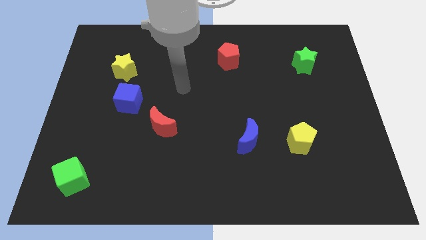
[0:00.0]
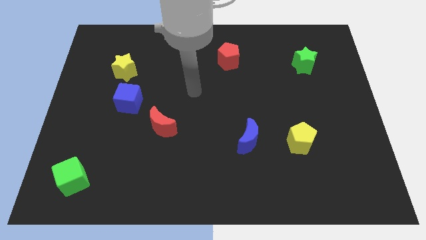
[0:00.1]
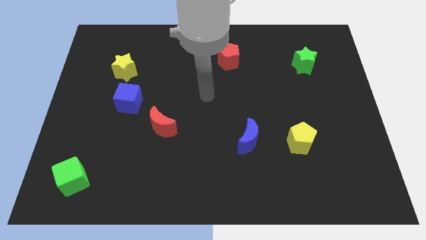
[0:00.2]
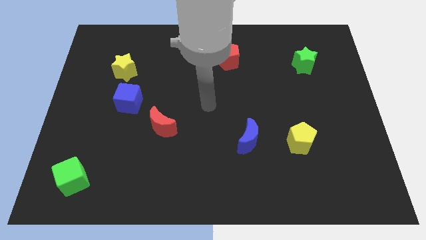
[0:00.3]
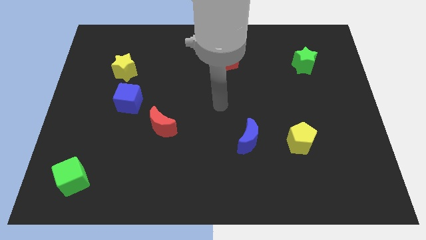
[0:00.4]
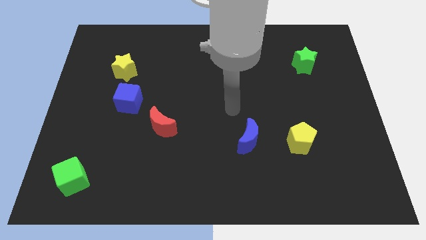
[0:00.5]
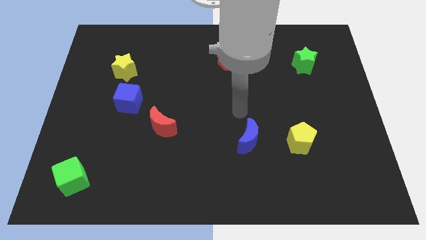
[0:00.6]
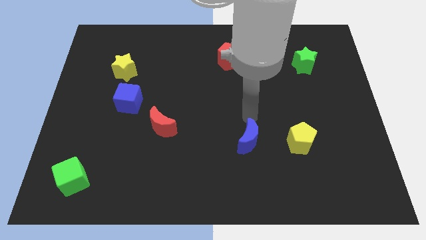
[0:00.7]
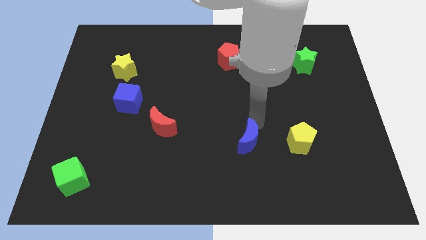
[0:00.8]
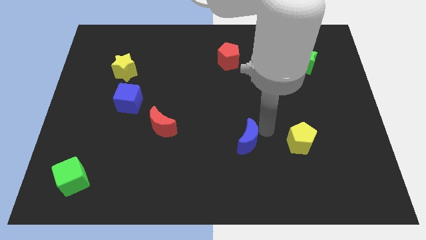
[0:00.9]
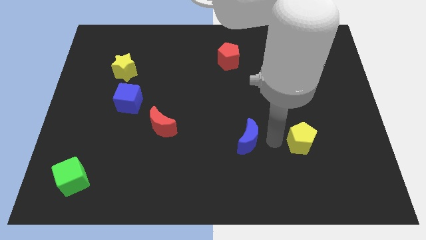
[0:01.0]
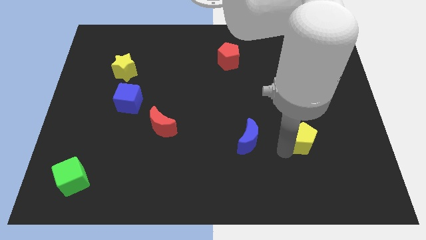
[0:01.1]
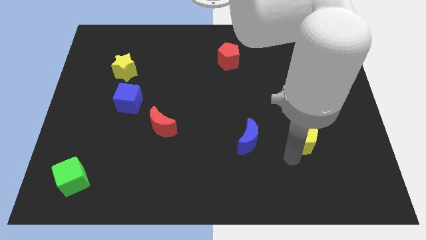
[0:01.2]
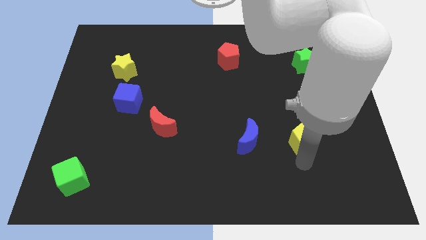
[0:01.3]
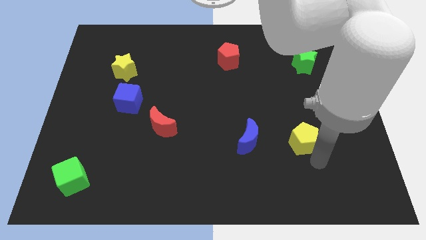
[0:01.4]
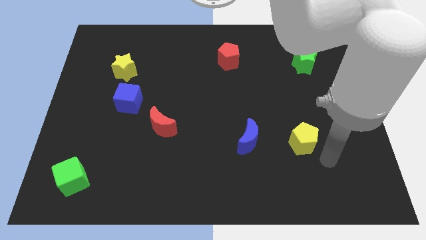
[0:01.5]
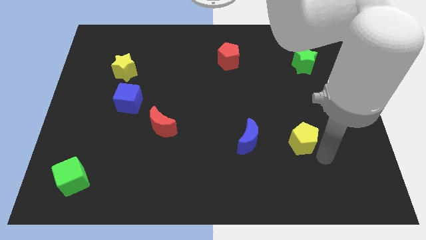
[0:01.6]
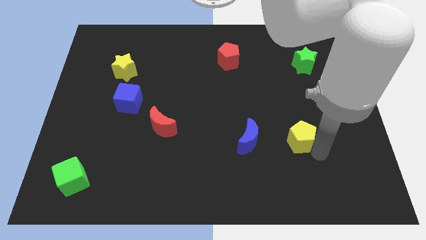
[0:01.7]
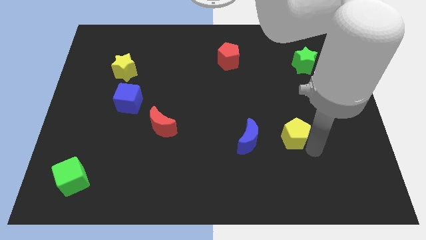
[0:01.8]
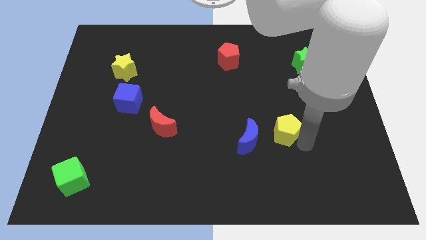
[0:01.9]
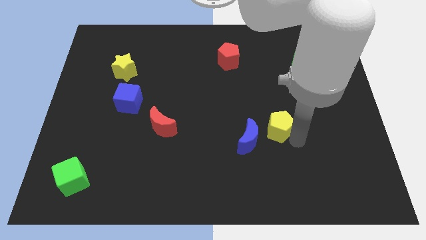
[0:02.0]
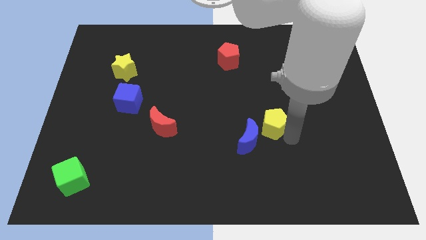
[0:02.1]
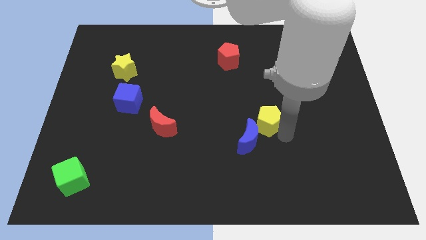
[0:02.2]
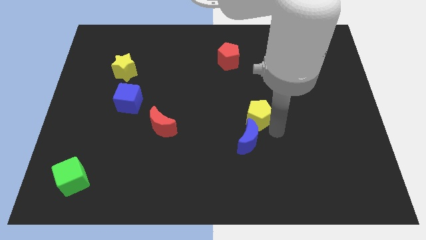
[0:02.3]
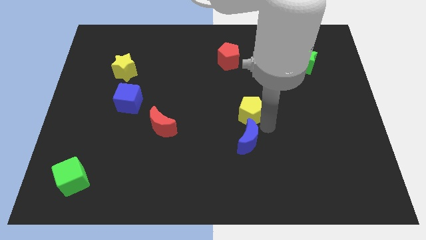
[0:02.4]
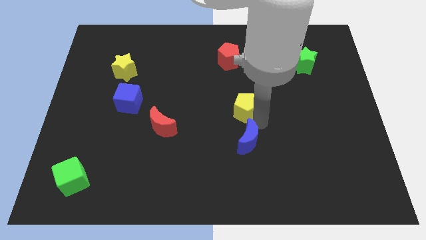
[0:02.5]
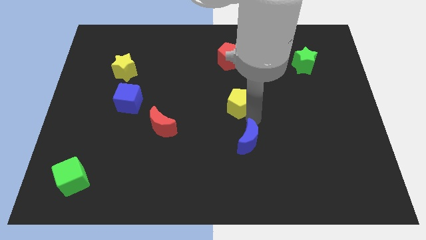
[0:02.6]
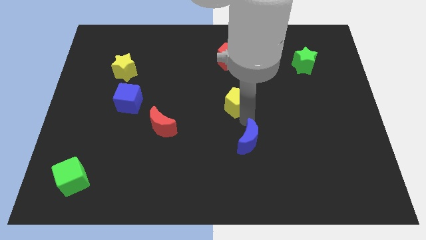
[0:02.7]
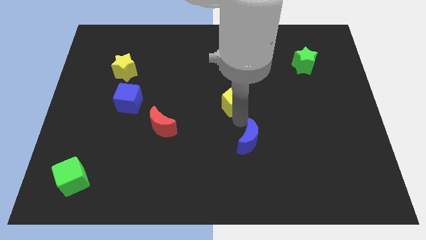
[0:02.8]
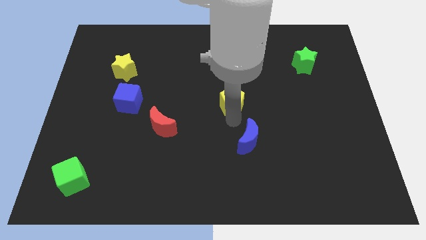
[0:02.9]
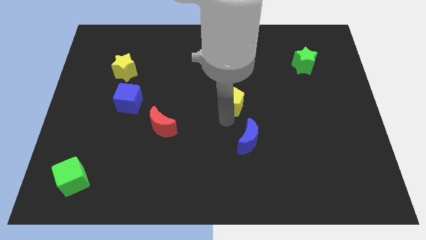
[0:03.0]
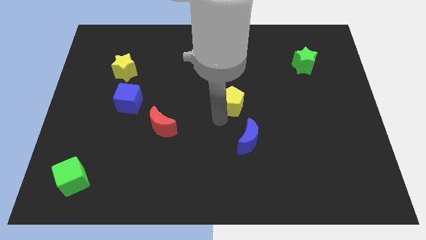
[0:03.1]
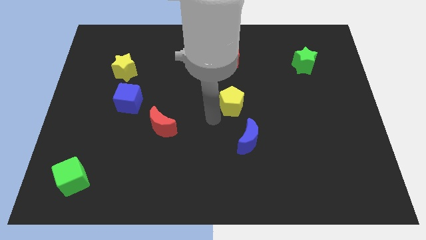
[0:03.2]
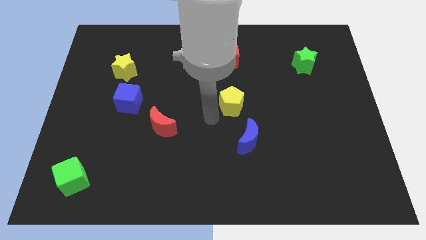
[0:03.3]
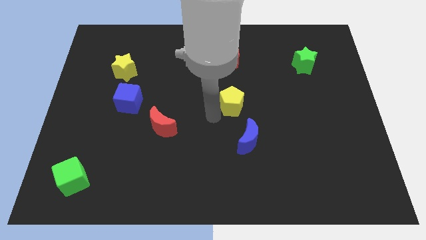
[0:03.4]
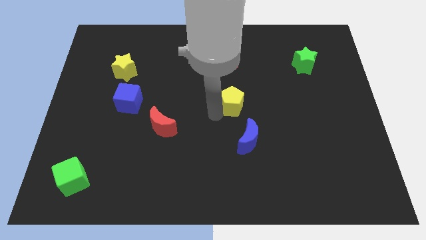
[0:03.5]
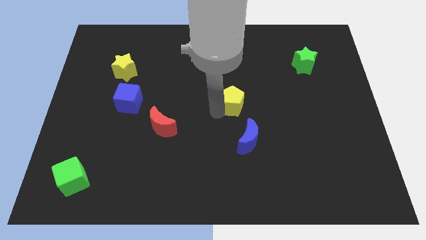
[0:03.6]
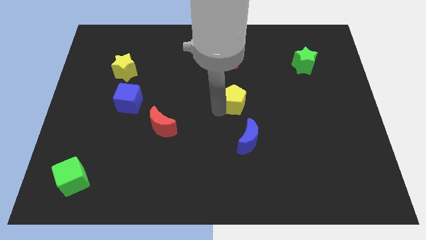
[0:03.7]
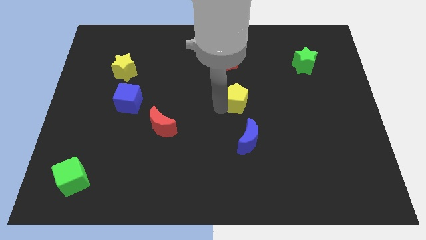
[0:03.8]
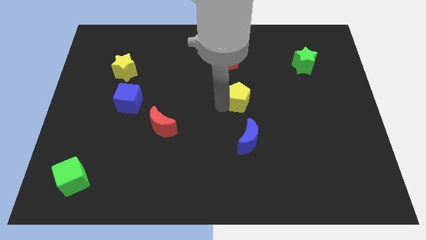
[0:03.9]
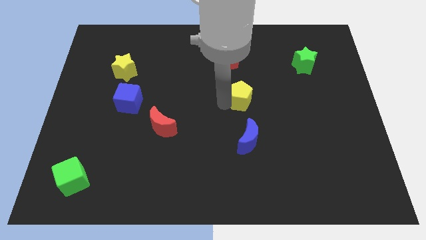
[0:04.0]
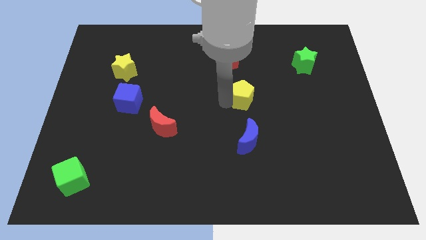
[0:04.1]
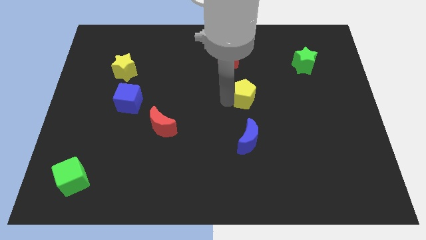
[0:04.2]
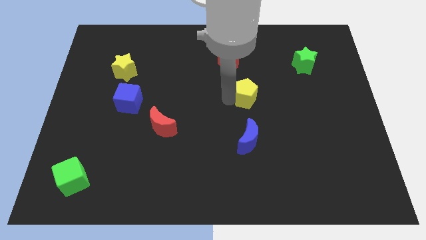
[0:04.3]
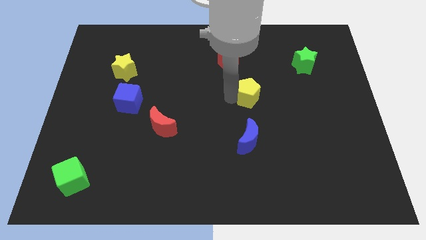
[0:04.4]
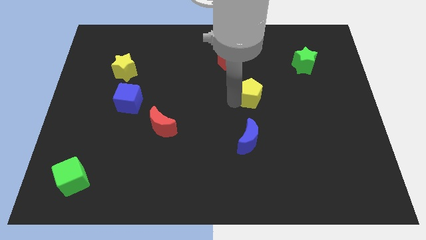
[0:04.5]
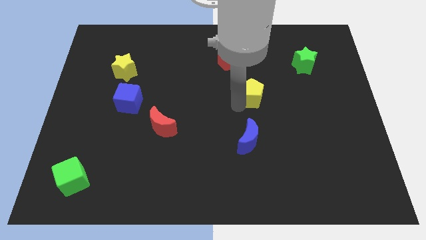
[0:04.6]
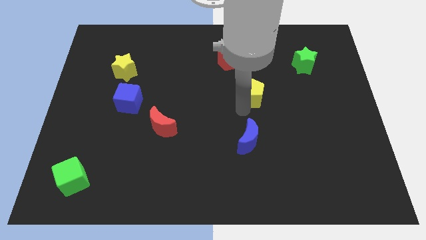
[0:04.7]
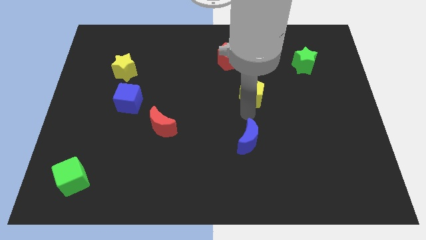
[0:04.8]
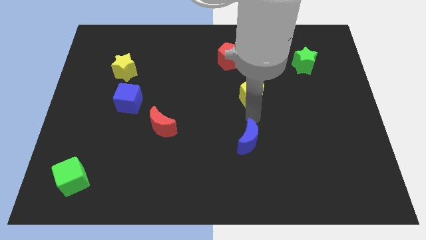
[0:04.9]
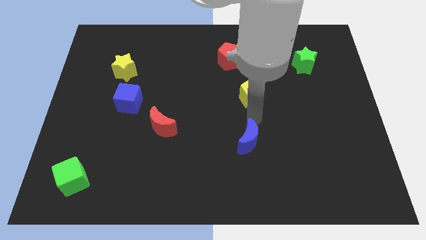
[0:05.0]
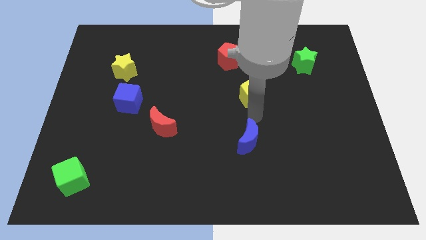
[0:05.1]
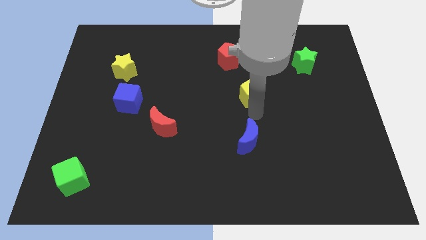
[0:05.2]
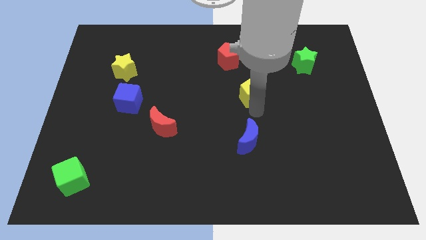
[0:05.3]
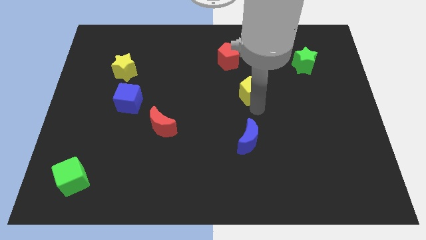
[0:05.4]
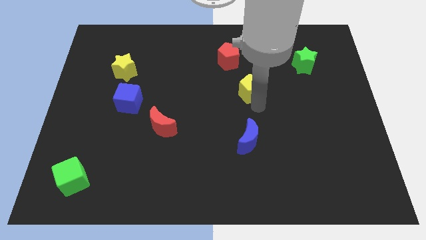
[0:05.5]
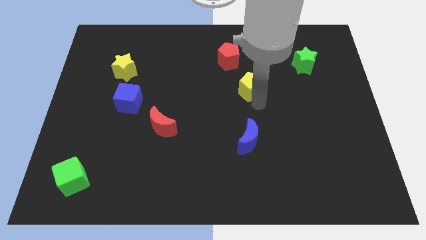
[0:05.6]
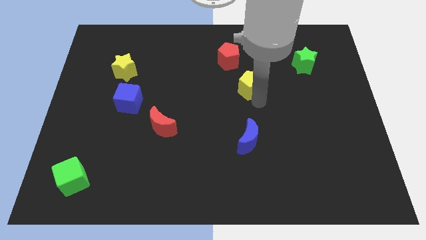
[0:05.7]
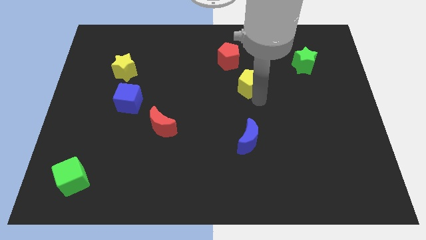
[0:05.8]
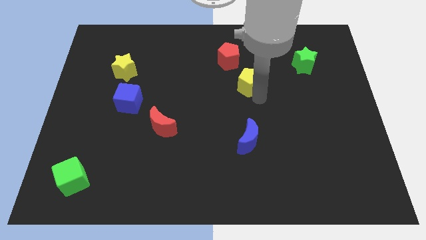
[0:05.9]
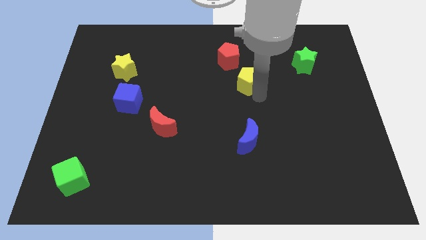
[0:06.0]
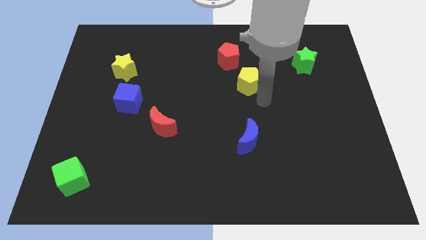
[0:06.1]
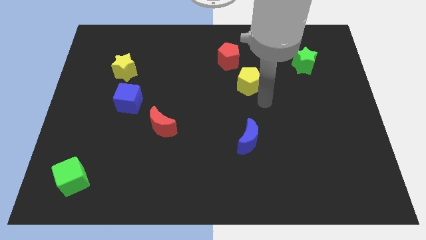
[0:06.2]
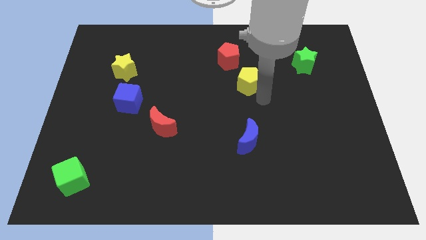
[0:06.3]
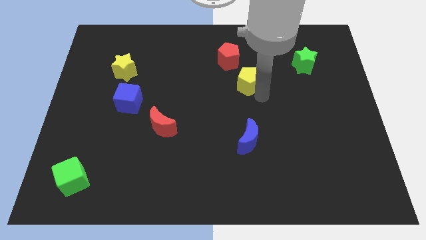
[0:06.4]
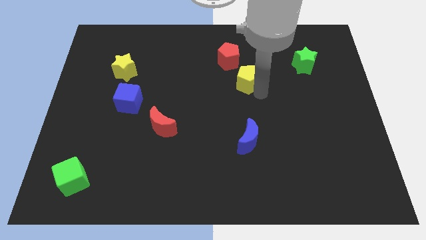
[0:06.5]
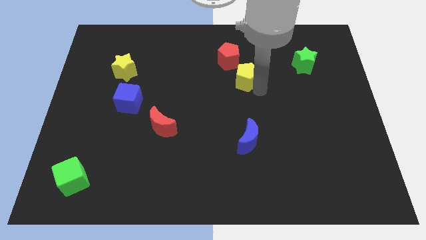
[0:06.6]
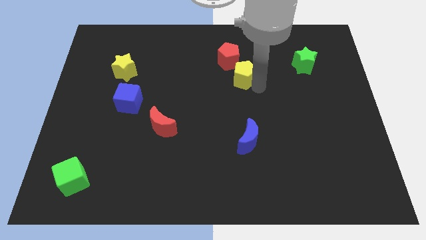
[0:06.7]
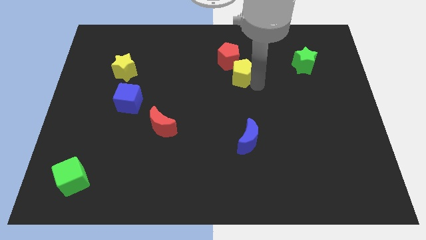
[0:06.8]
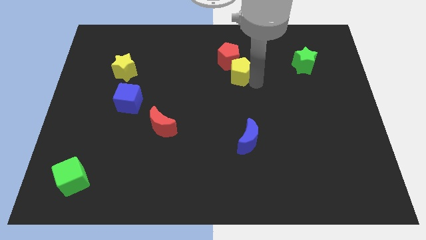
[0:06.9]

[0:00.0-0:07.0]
move the yellow pentagon to the red pentagon
